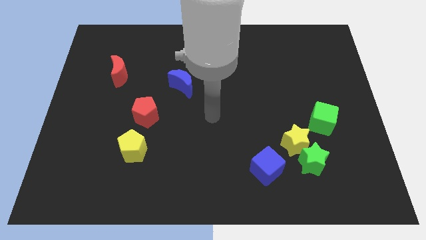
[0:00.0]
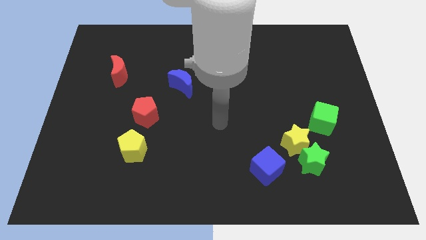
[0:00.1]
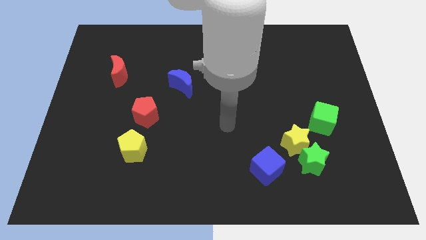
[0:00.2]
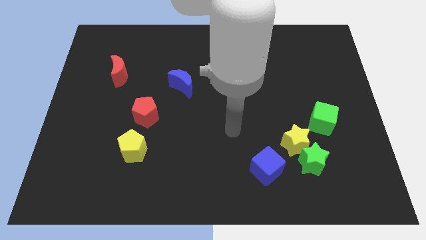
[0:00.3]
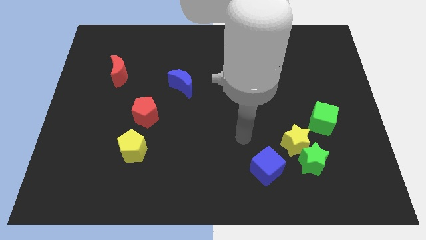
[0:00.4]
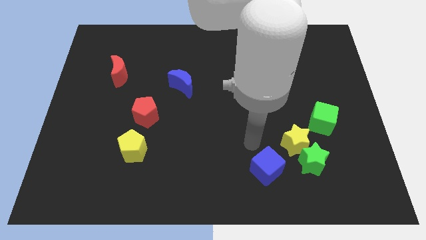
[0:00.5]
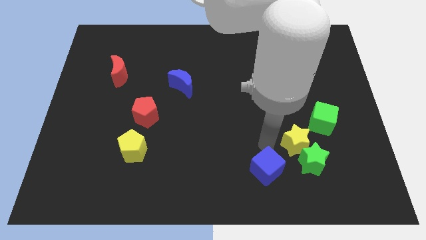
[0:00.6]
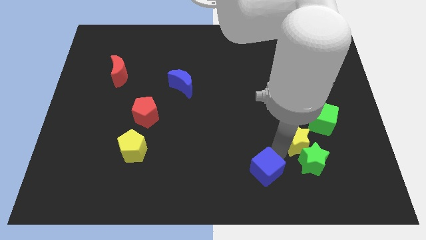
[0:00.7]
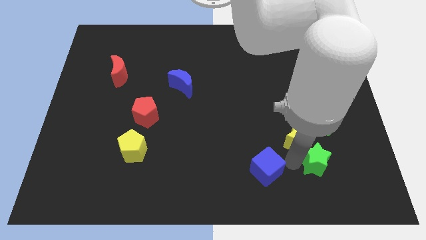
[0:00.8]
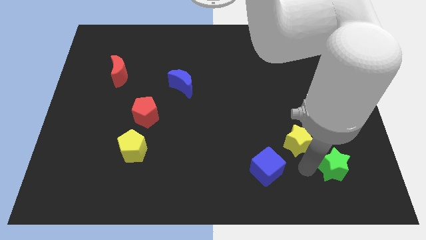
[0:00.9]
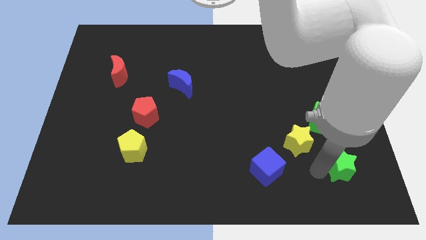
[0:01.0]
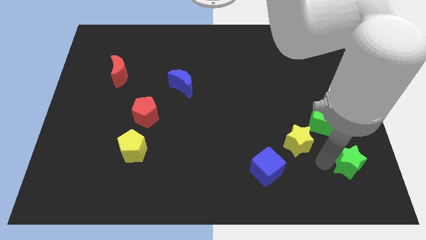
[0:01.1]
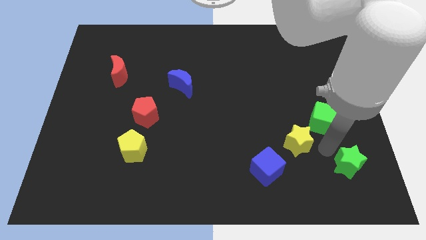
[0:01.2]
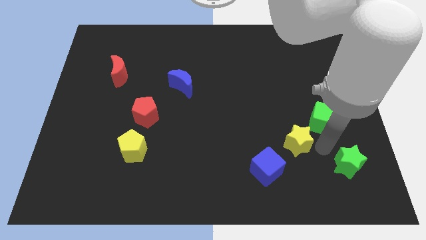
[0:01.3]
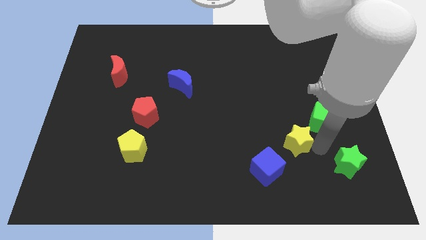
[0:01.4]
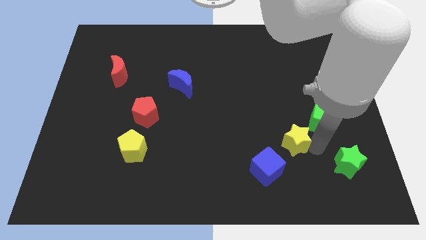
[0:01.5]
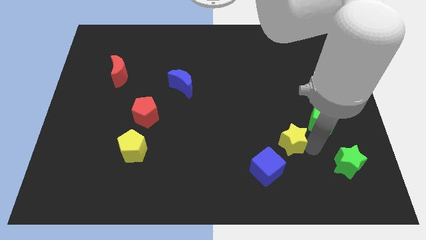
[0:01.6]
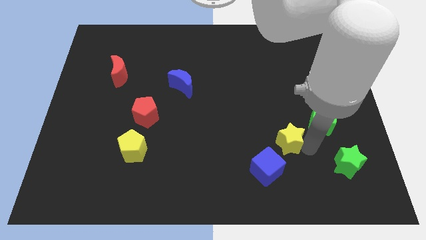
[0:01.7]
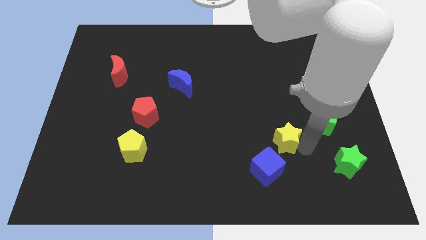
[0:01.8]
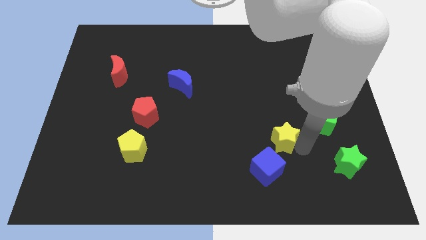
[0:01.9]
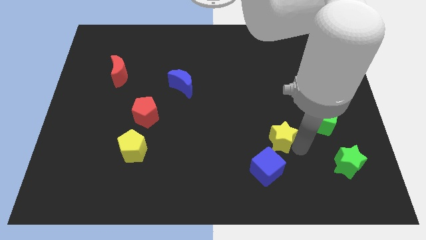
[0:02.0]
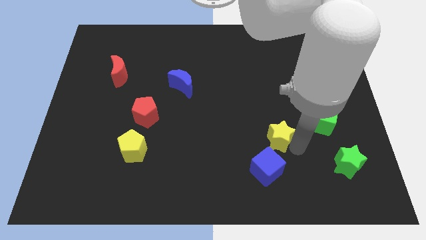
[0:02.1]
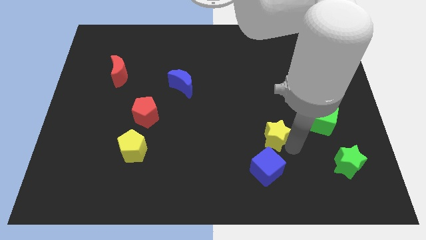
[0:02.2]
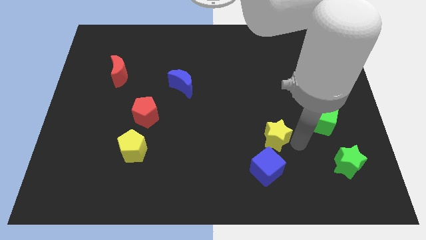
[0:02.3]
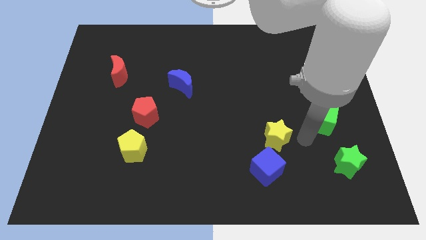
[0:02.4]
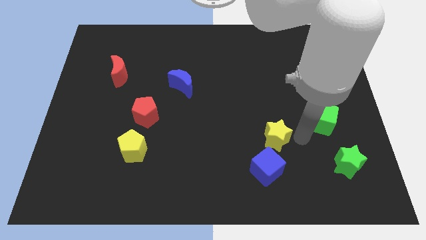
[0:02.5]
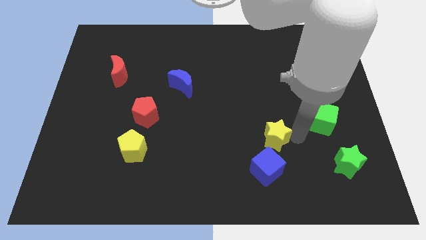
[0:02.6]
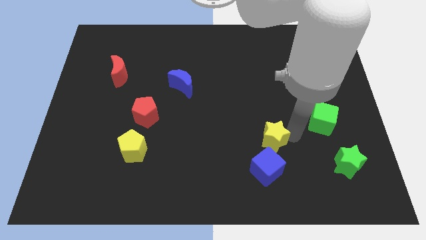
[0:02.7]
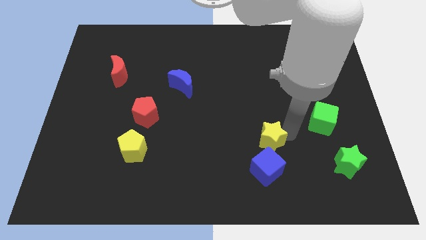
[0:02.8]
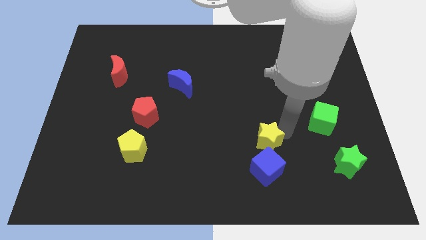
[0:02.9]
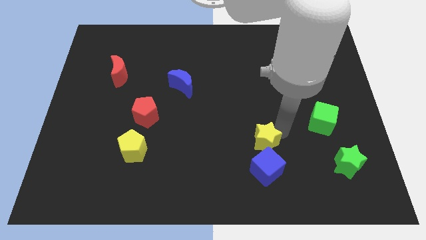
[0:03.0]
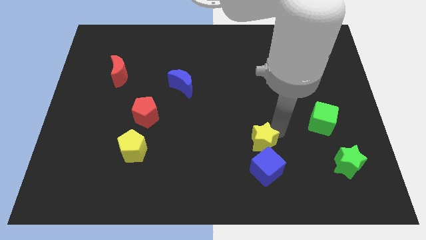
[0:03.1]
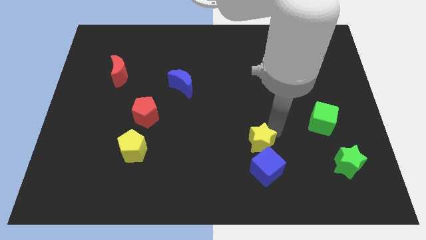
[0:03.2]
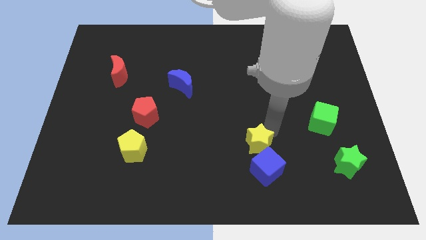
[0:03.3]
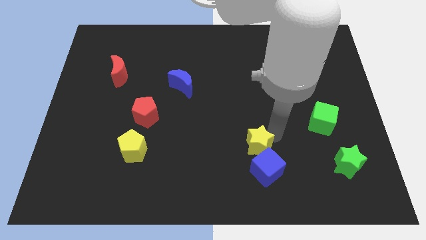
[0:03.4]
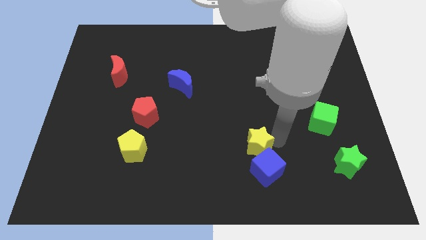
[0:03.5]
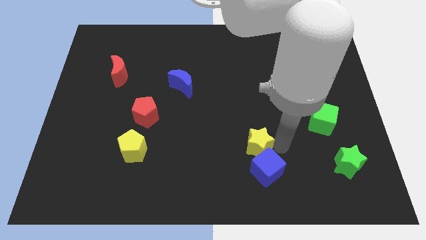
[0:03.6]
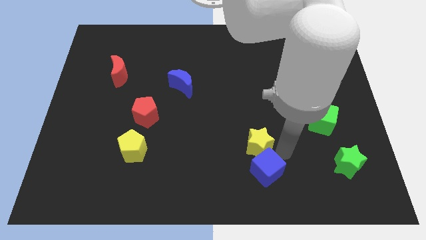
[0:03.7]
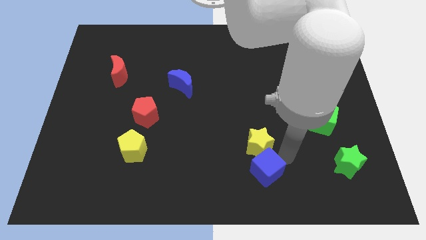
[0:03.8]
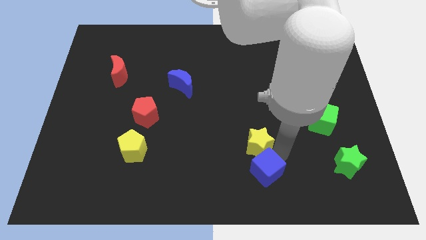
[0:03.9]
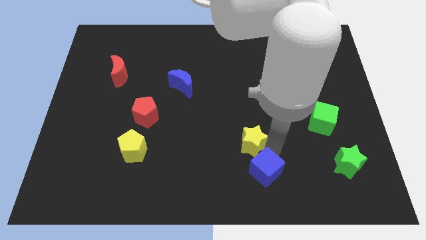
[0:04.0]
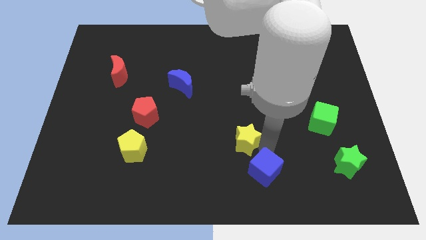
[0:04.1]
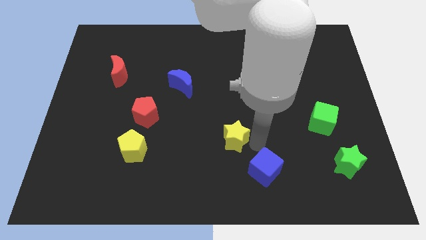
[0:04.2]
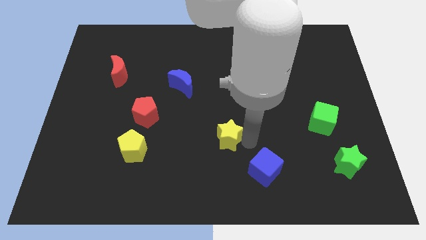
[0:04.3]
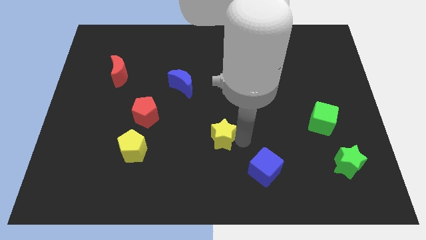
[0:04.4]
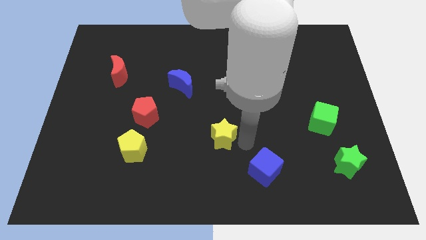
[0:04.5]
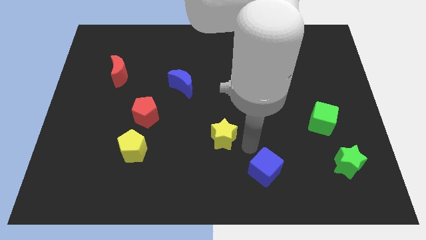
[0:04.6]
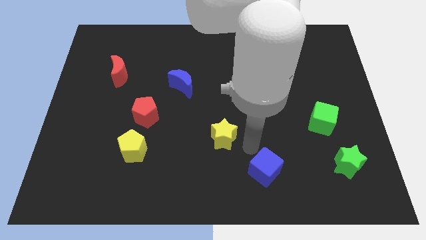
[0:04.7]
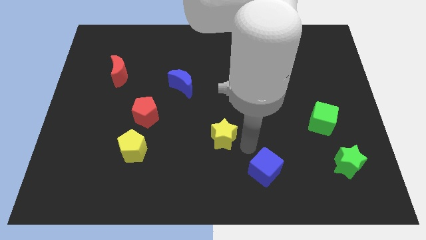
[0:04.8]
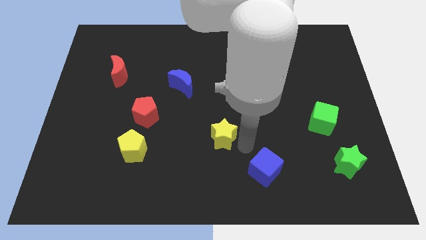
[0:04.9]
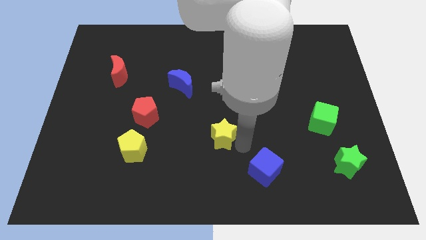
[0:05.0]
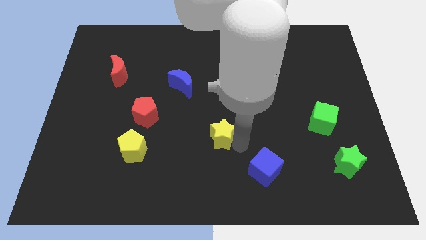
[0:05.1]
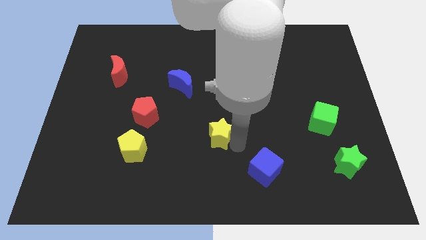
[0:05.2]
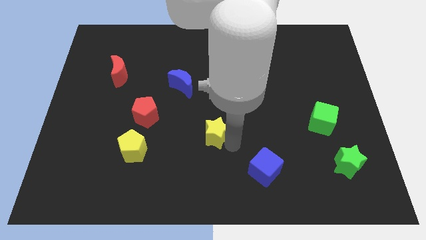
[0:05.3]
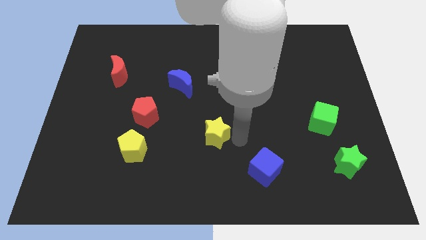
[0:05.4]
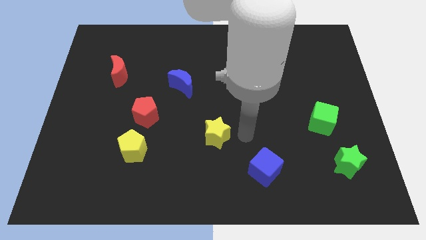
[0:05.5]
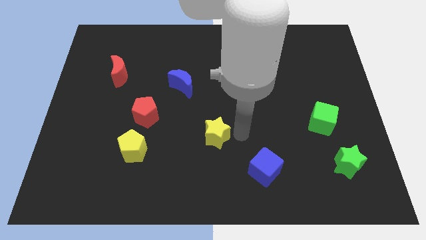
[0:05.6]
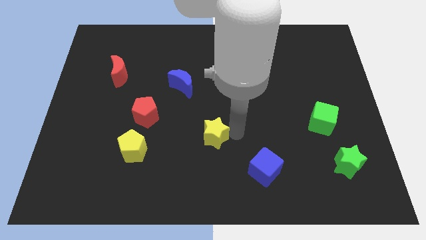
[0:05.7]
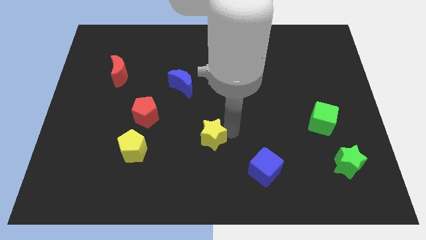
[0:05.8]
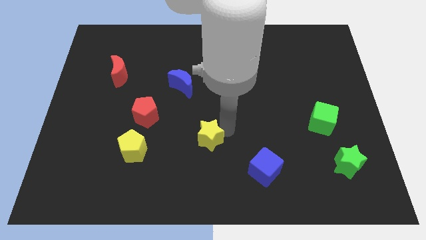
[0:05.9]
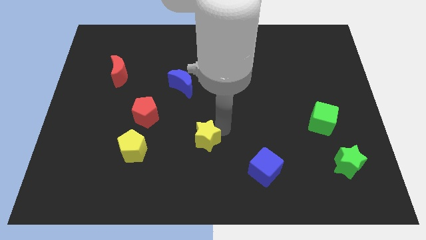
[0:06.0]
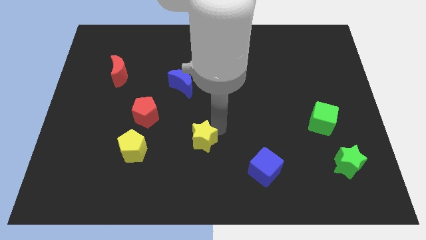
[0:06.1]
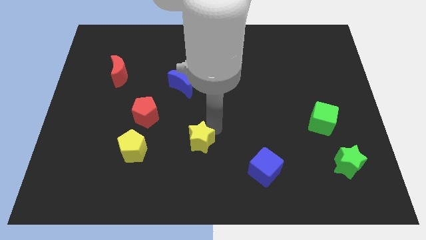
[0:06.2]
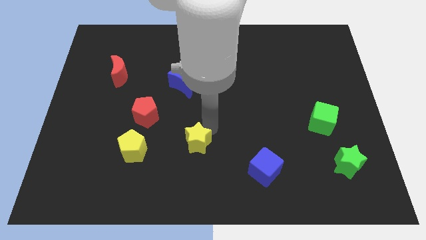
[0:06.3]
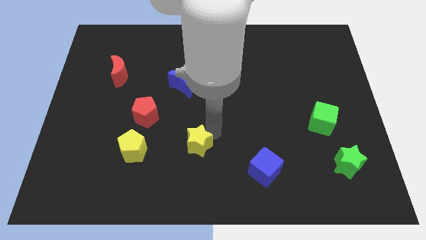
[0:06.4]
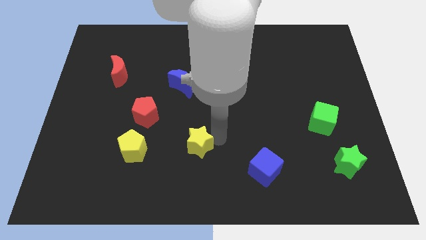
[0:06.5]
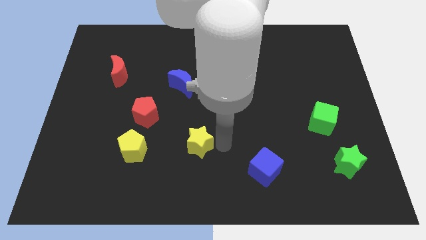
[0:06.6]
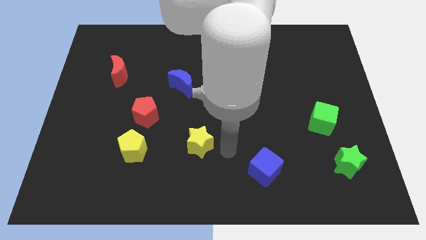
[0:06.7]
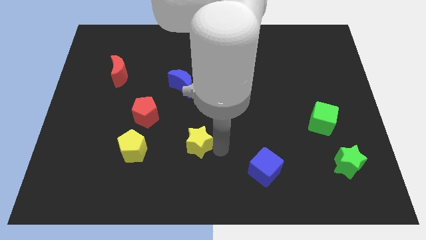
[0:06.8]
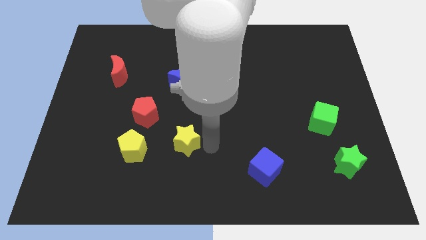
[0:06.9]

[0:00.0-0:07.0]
put the yellow star diagonally down and to the right of the red pentagon
